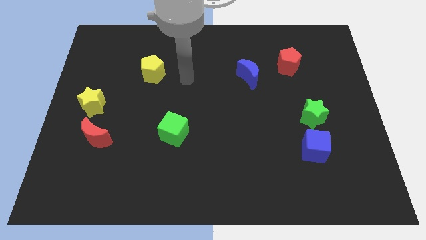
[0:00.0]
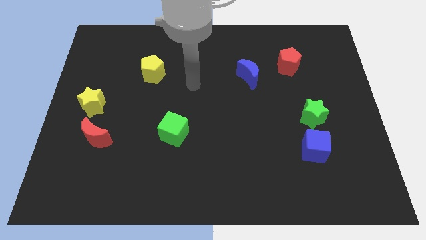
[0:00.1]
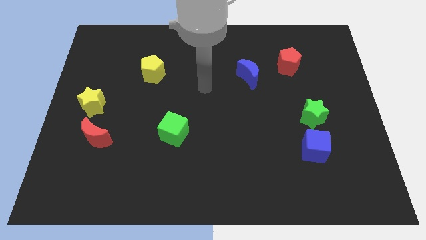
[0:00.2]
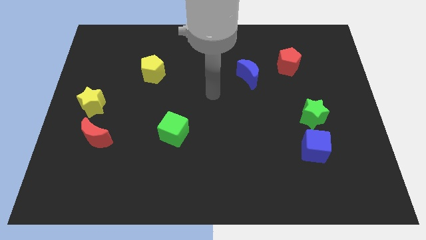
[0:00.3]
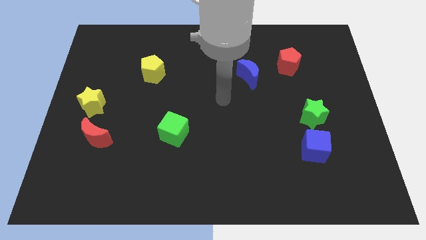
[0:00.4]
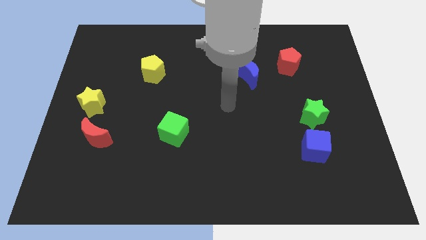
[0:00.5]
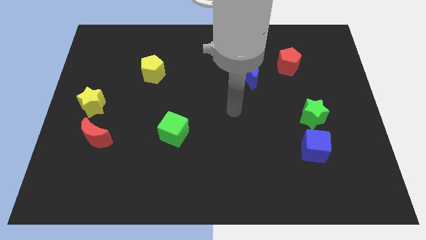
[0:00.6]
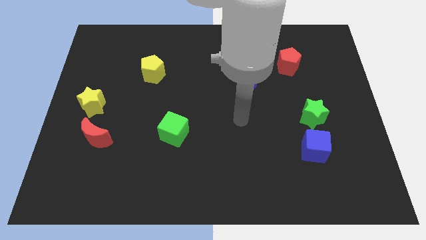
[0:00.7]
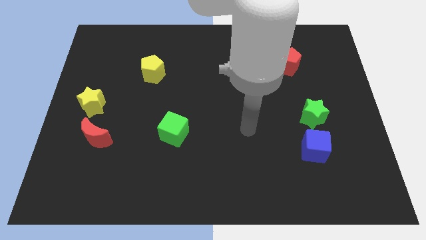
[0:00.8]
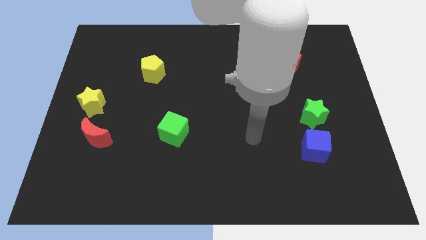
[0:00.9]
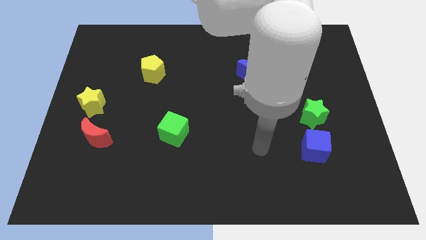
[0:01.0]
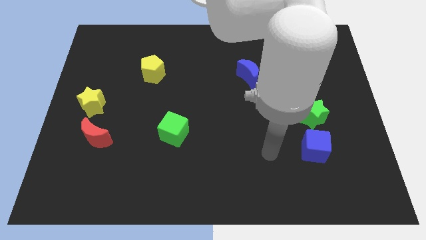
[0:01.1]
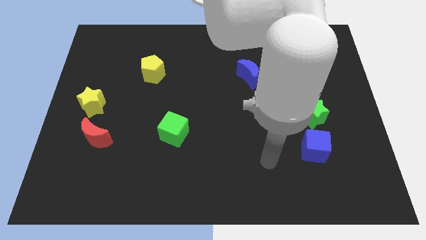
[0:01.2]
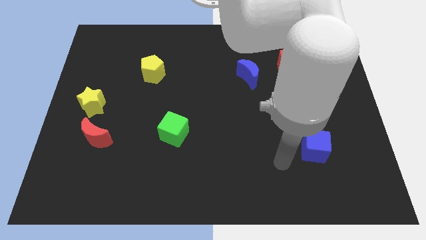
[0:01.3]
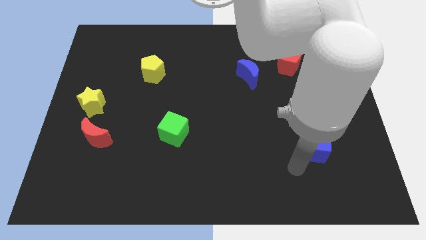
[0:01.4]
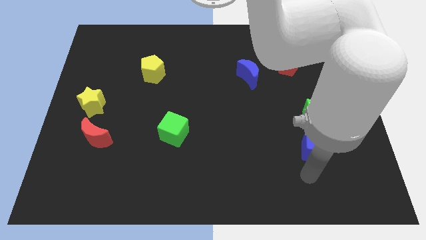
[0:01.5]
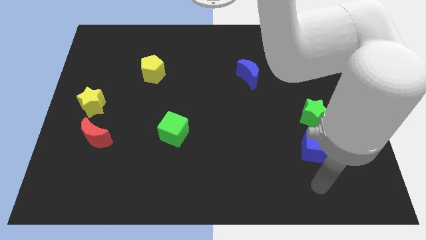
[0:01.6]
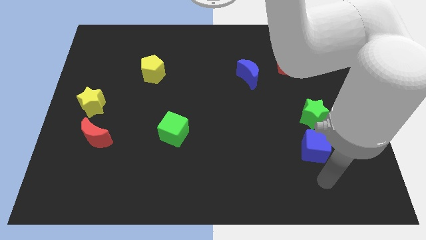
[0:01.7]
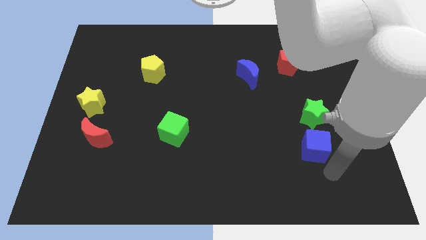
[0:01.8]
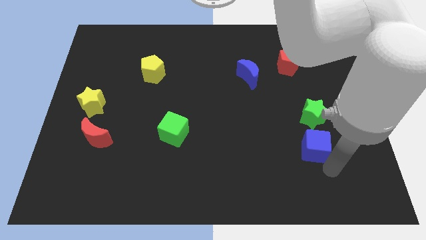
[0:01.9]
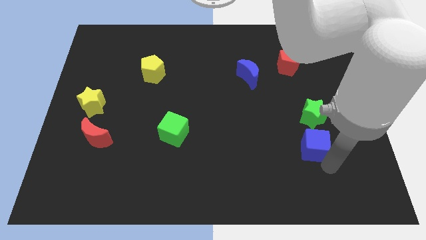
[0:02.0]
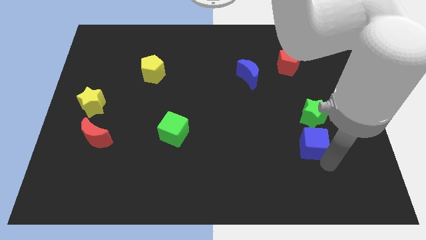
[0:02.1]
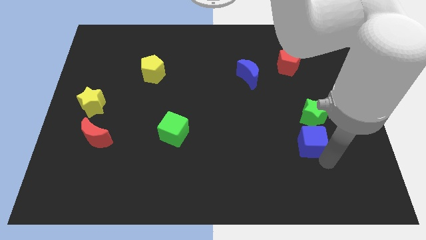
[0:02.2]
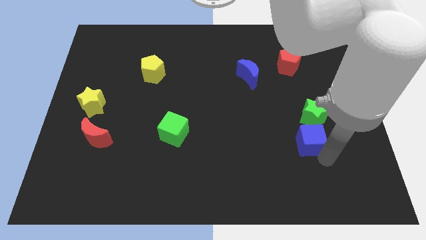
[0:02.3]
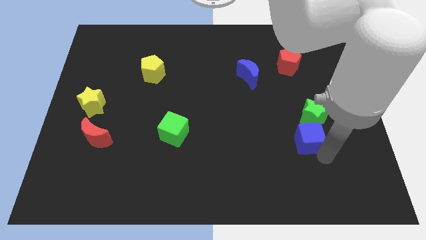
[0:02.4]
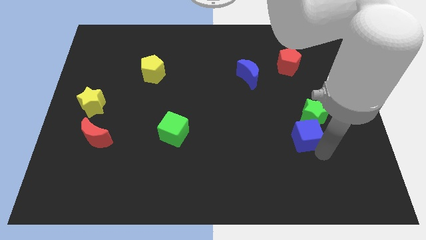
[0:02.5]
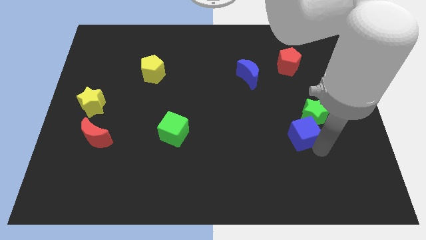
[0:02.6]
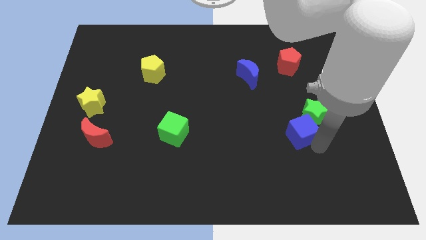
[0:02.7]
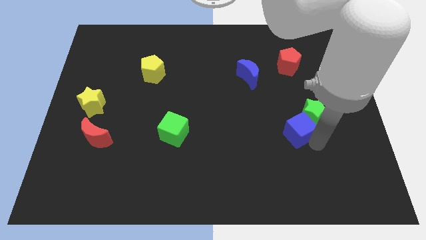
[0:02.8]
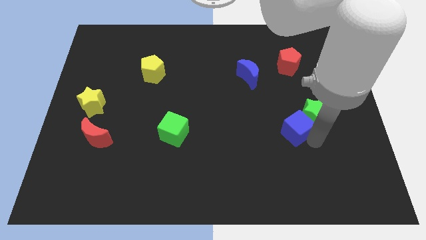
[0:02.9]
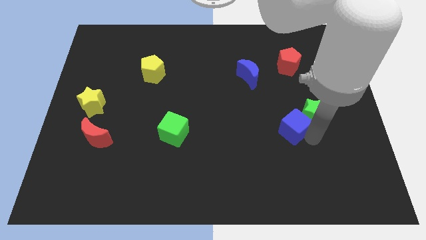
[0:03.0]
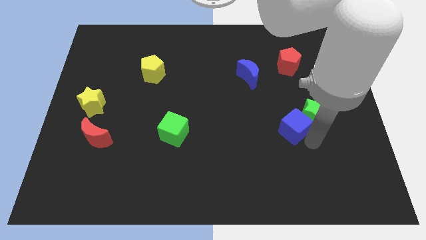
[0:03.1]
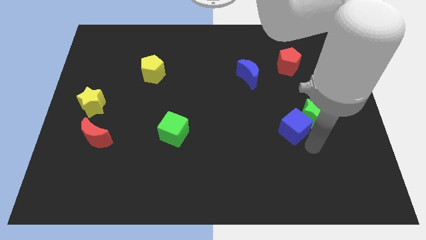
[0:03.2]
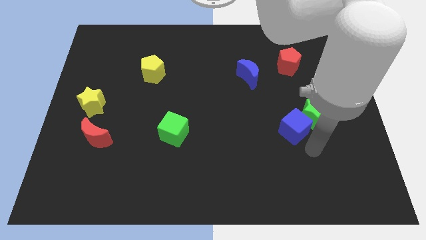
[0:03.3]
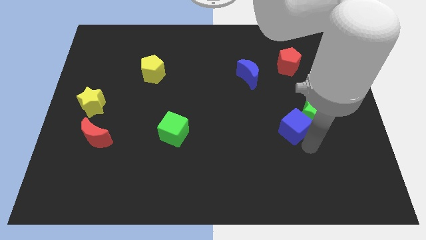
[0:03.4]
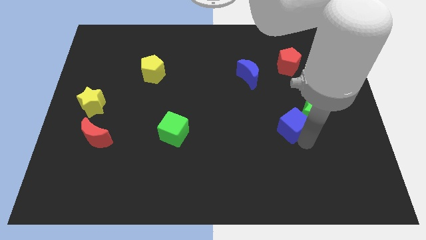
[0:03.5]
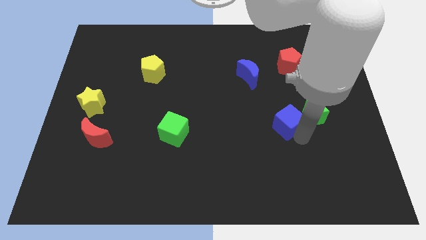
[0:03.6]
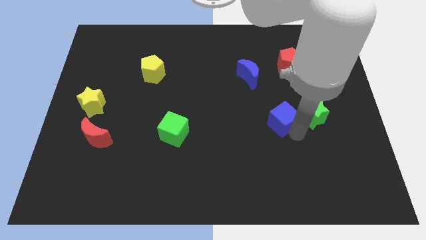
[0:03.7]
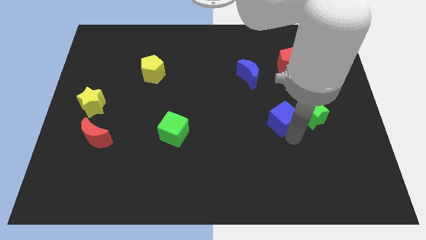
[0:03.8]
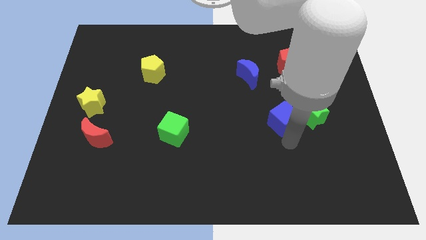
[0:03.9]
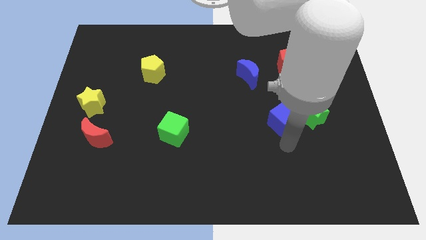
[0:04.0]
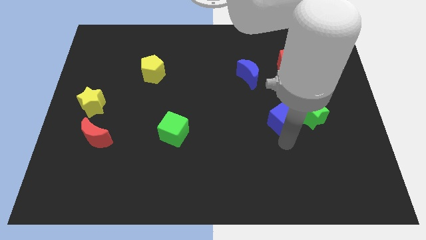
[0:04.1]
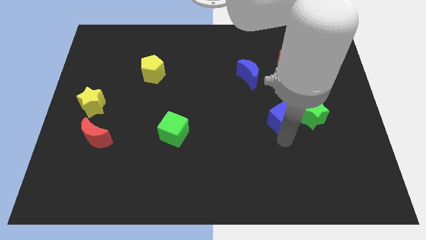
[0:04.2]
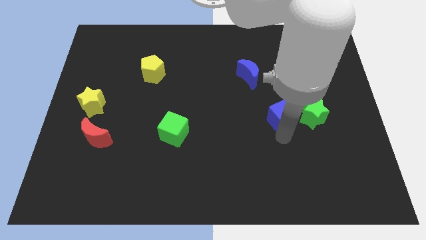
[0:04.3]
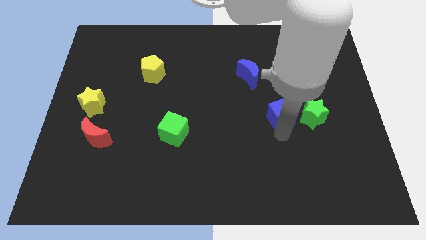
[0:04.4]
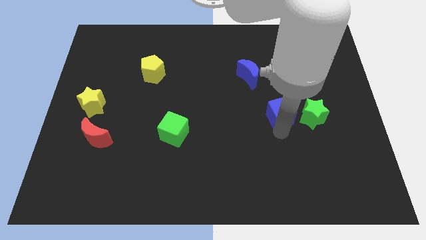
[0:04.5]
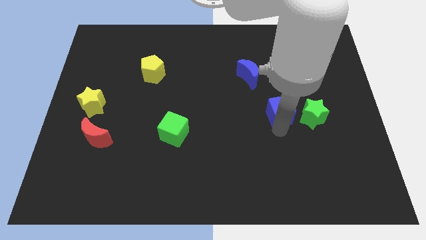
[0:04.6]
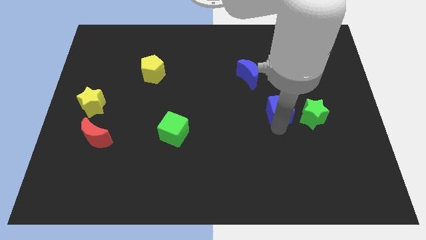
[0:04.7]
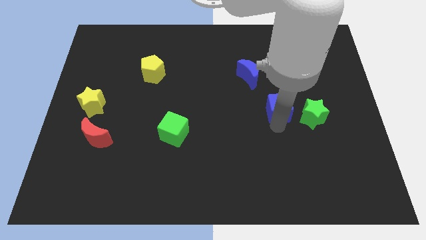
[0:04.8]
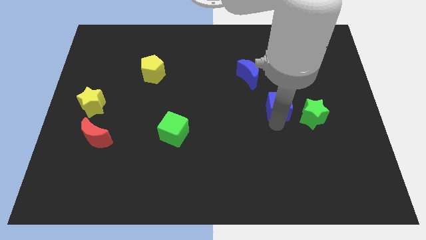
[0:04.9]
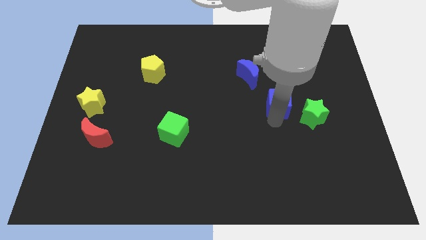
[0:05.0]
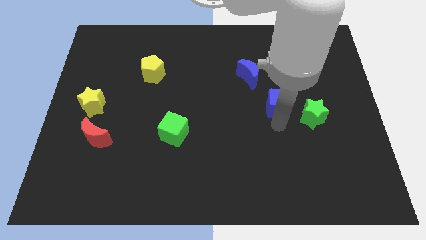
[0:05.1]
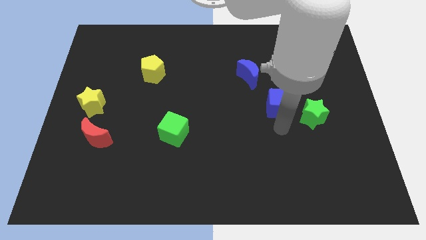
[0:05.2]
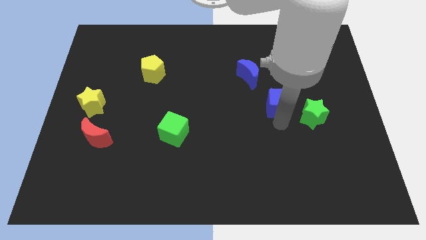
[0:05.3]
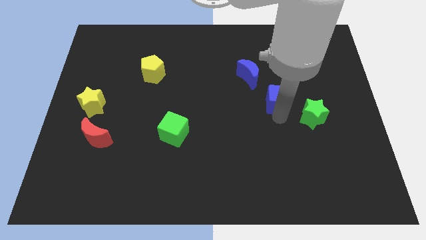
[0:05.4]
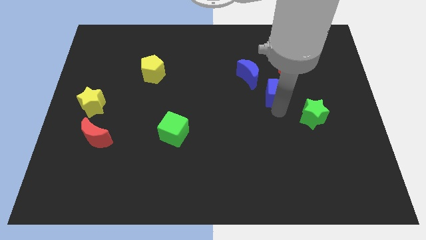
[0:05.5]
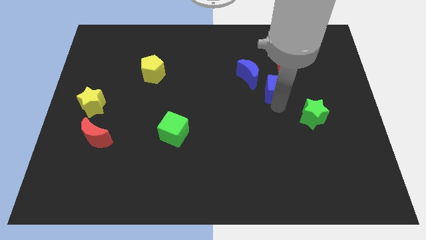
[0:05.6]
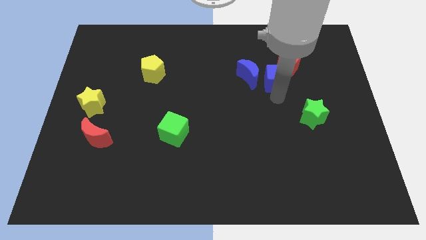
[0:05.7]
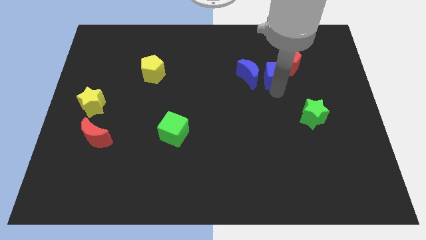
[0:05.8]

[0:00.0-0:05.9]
slide the blue cube to the top right side of the blue moon

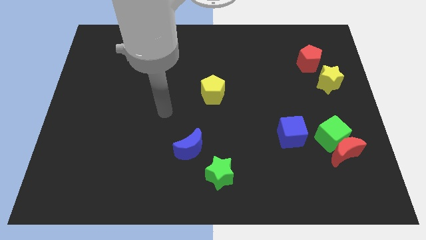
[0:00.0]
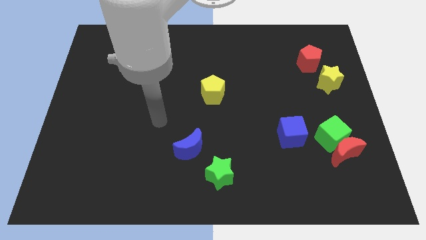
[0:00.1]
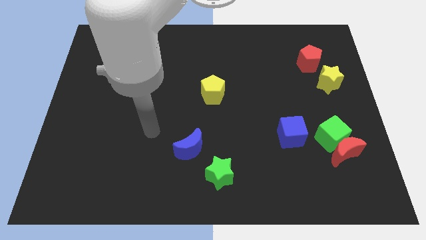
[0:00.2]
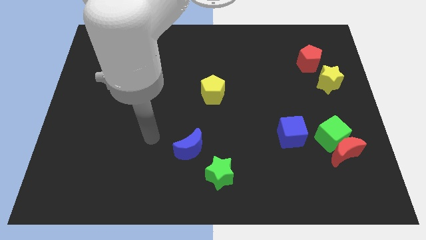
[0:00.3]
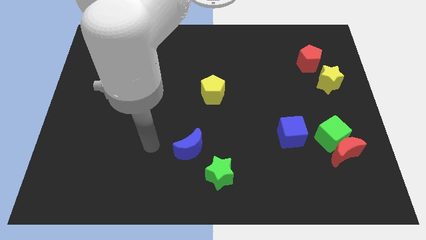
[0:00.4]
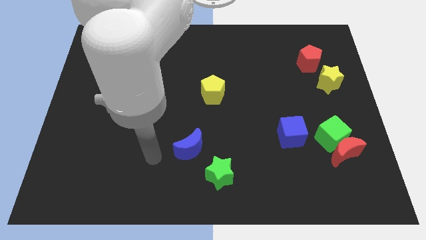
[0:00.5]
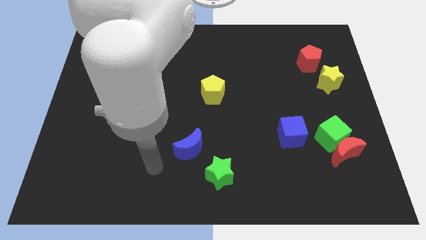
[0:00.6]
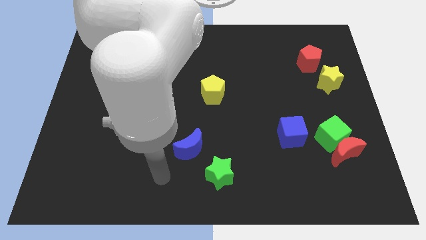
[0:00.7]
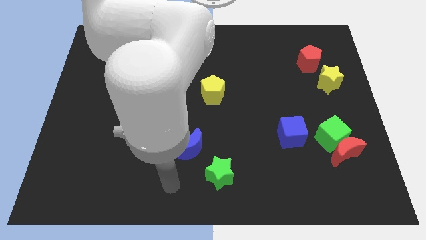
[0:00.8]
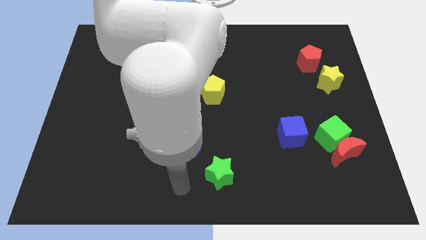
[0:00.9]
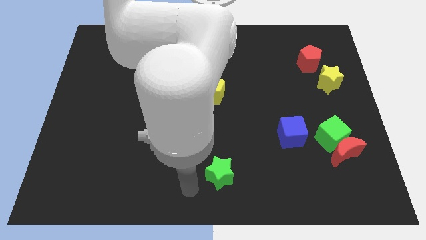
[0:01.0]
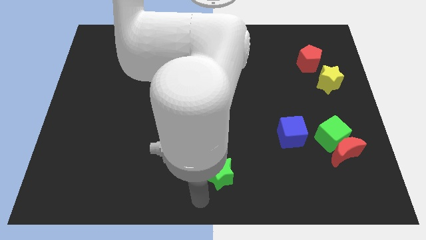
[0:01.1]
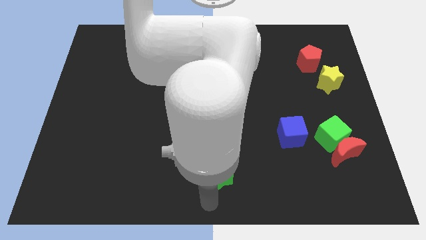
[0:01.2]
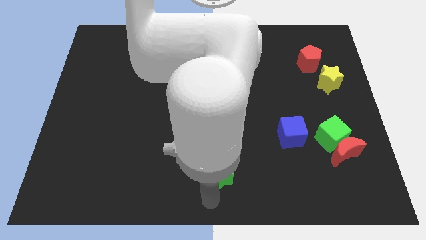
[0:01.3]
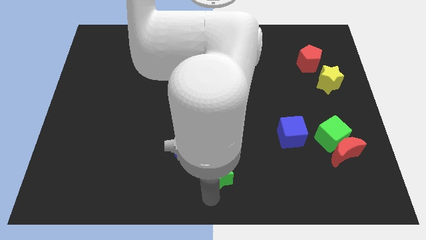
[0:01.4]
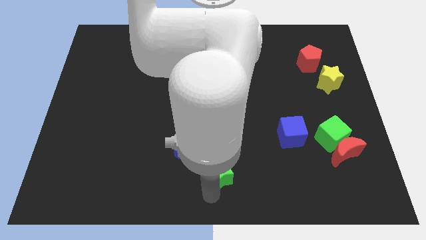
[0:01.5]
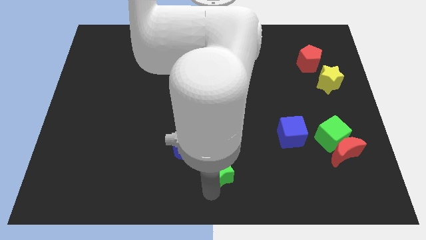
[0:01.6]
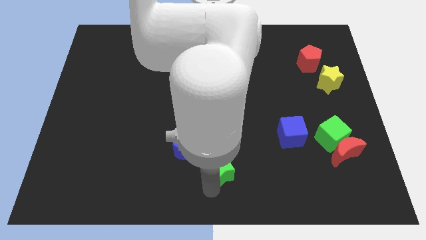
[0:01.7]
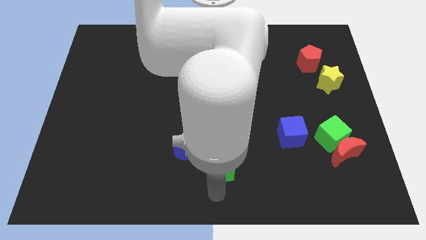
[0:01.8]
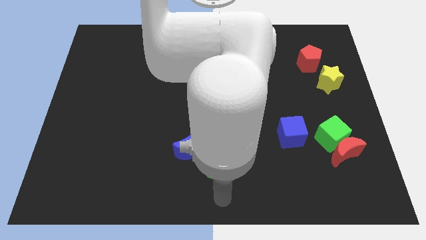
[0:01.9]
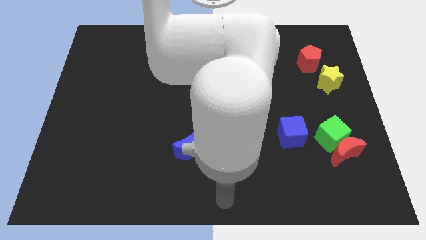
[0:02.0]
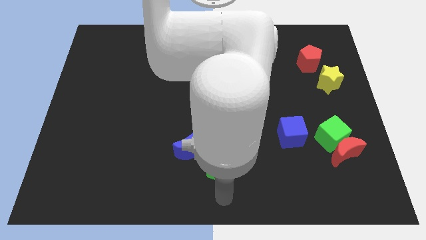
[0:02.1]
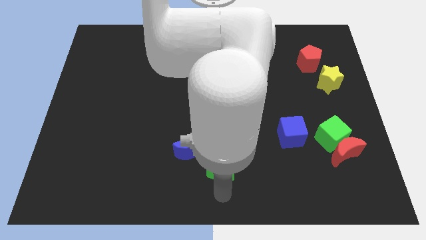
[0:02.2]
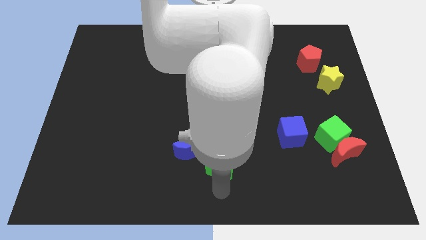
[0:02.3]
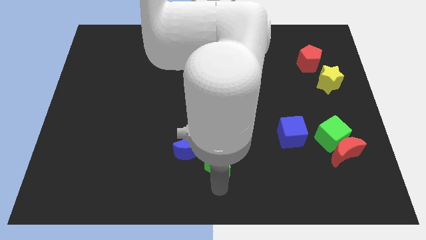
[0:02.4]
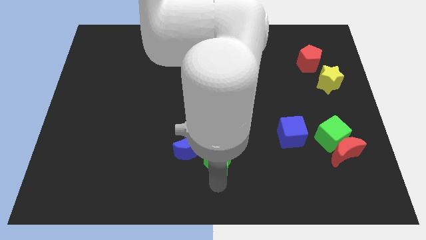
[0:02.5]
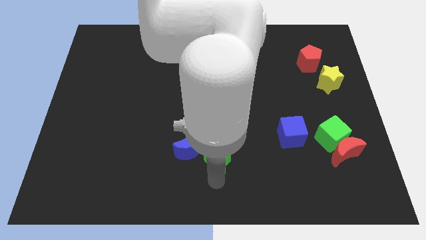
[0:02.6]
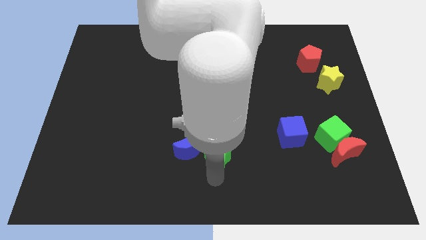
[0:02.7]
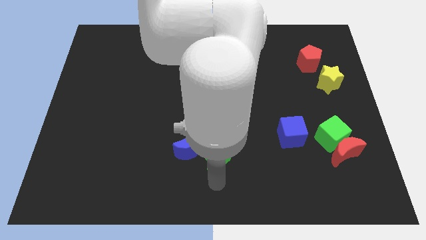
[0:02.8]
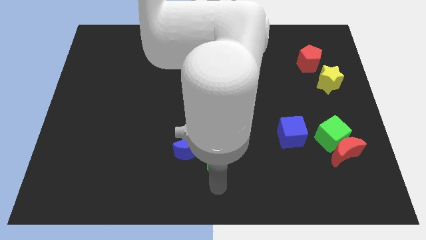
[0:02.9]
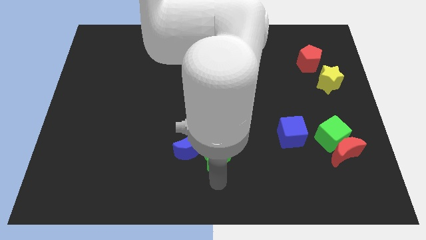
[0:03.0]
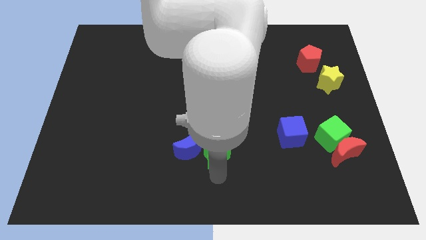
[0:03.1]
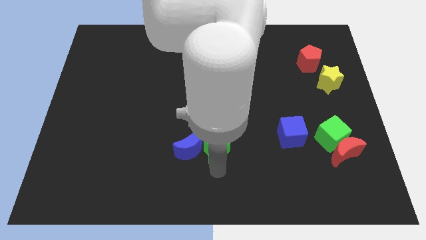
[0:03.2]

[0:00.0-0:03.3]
push the green star below the yellow pentagon
